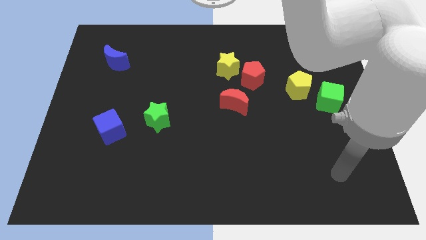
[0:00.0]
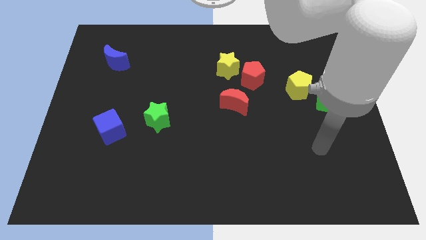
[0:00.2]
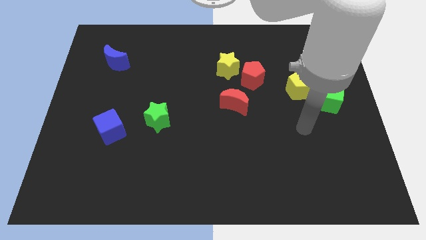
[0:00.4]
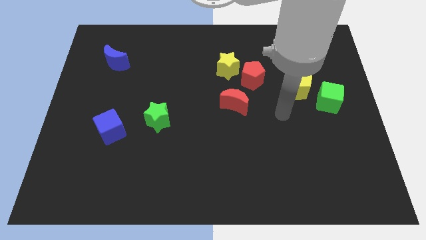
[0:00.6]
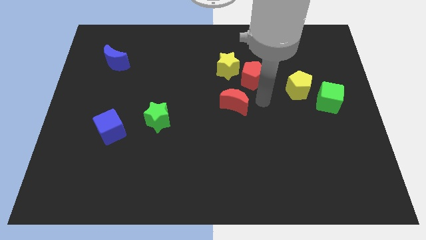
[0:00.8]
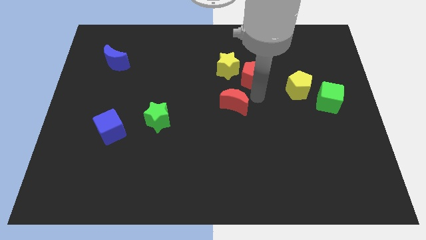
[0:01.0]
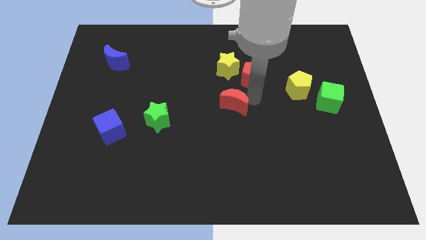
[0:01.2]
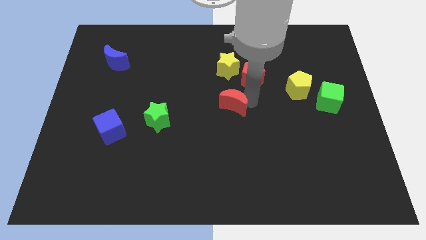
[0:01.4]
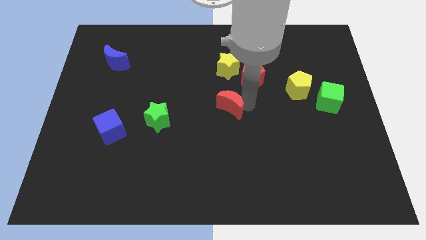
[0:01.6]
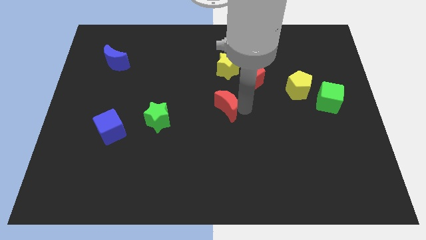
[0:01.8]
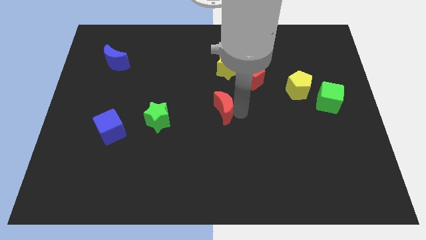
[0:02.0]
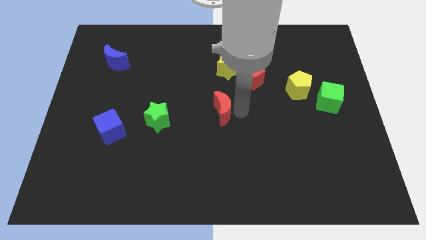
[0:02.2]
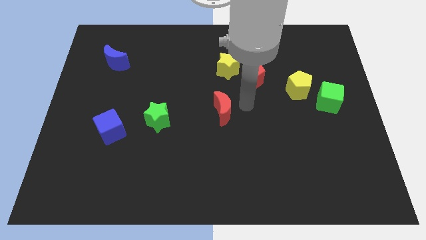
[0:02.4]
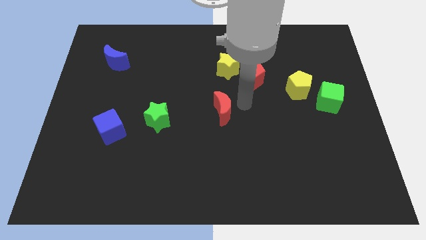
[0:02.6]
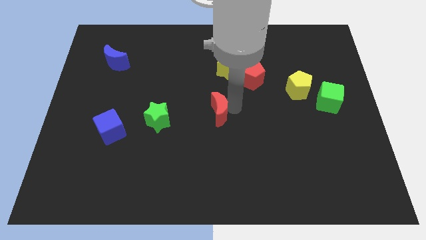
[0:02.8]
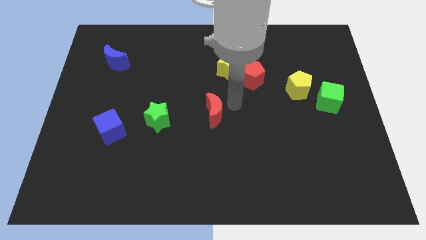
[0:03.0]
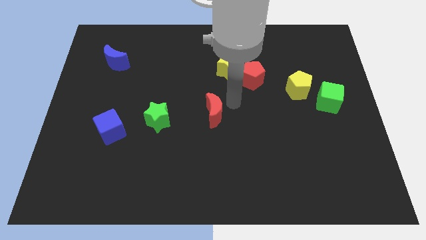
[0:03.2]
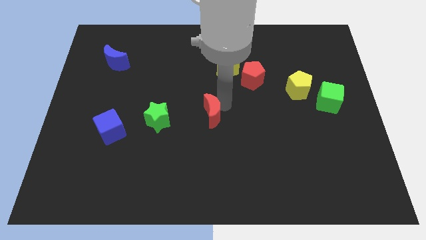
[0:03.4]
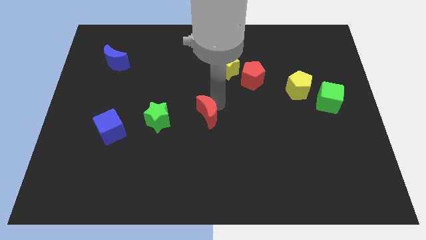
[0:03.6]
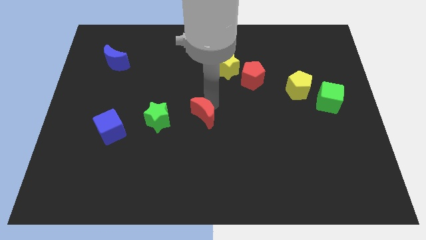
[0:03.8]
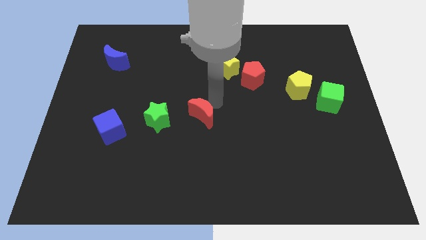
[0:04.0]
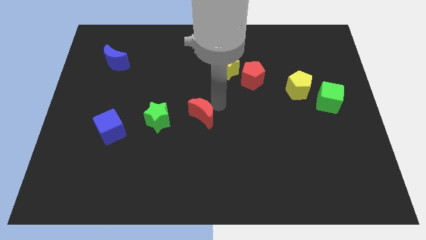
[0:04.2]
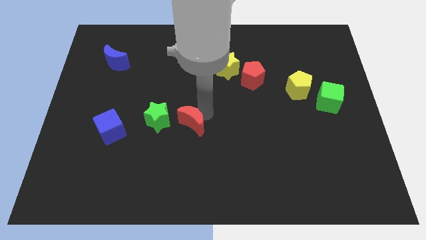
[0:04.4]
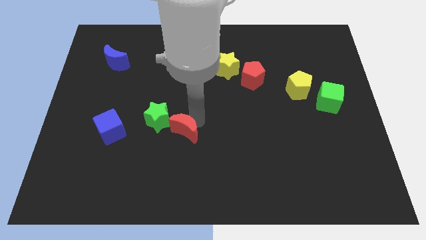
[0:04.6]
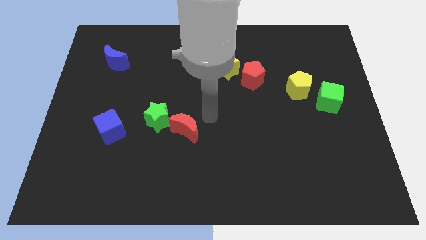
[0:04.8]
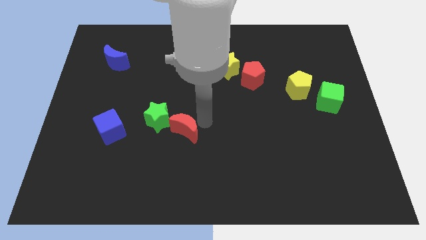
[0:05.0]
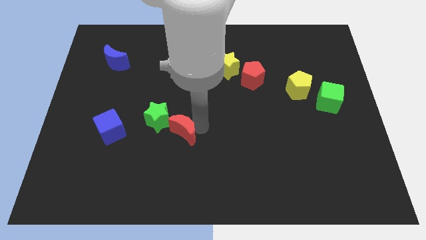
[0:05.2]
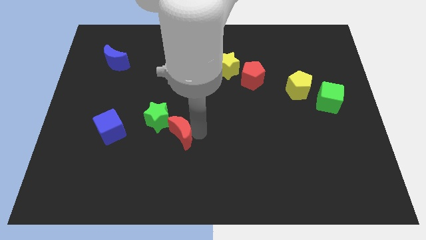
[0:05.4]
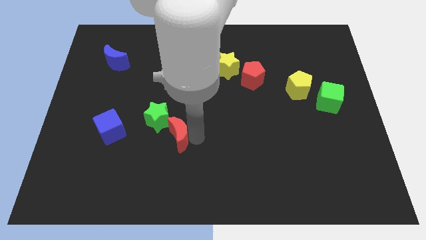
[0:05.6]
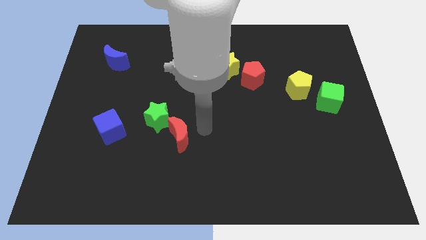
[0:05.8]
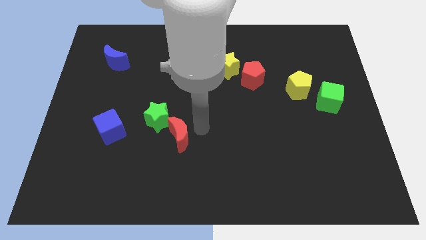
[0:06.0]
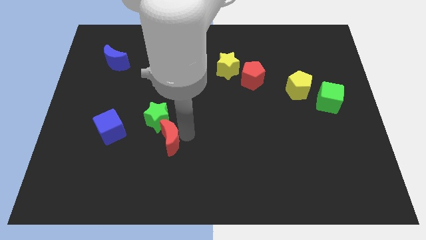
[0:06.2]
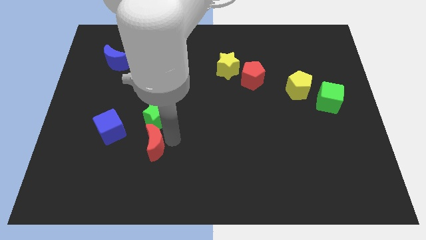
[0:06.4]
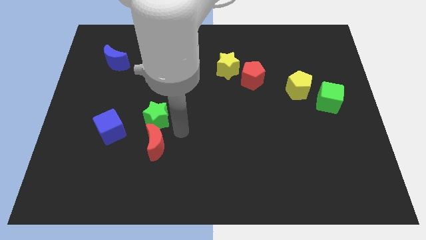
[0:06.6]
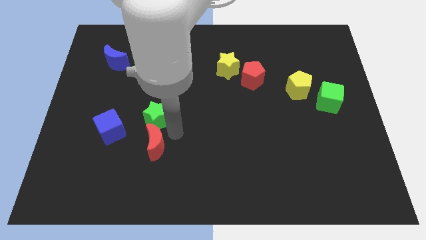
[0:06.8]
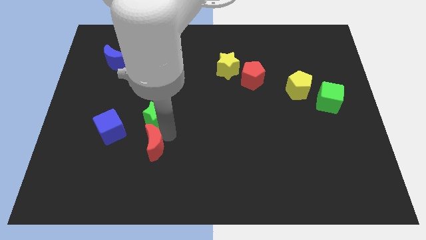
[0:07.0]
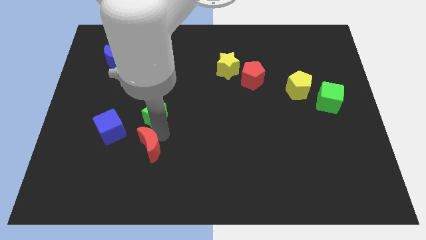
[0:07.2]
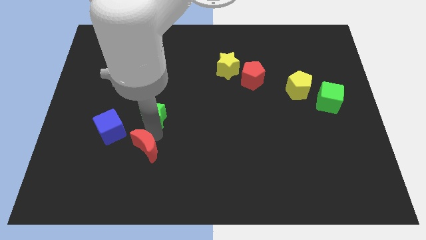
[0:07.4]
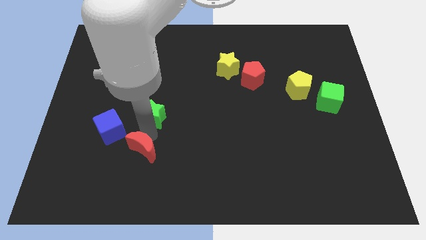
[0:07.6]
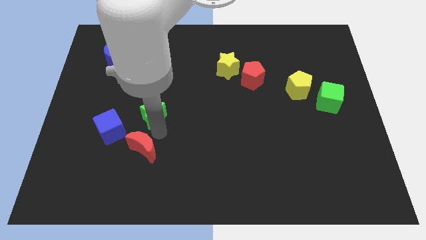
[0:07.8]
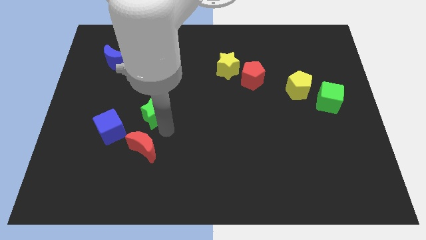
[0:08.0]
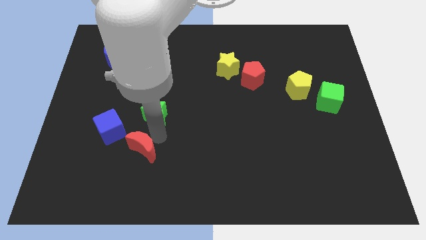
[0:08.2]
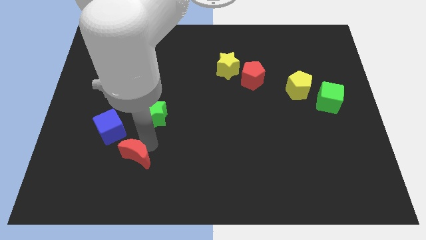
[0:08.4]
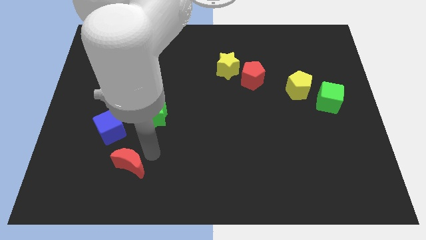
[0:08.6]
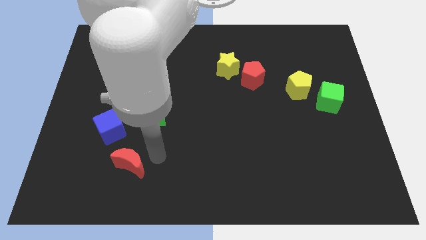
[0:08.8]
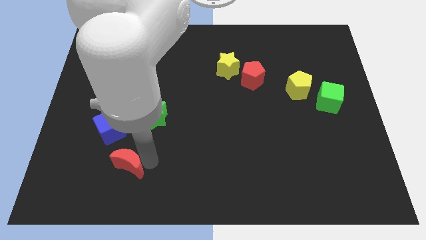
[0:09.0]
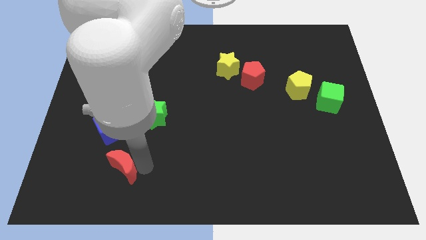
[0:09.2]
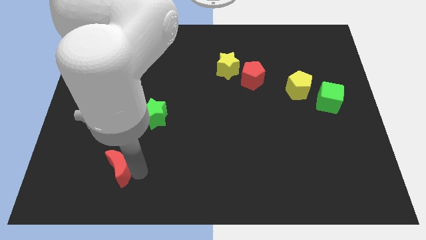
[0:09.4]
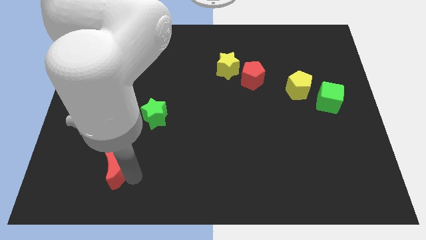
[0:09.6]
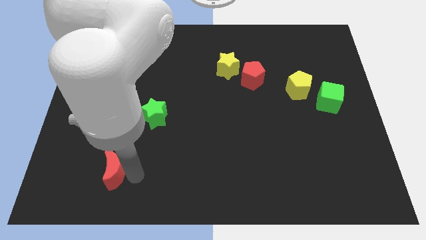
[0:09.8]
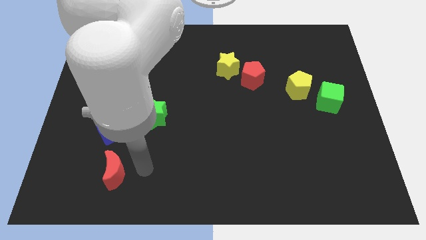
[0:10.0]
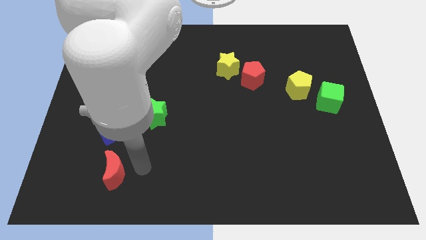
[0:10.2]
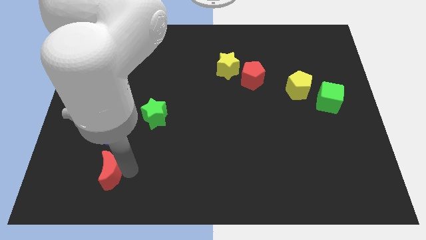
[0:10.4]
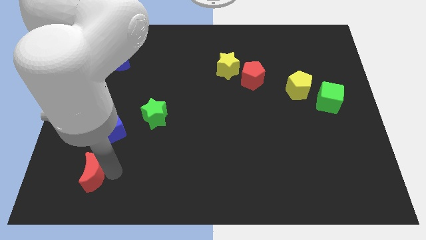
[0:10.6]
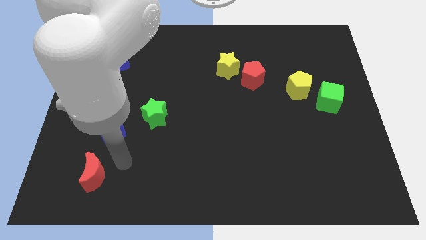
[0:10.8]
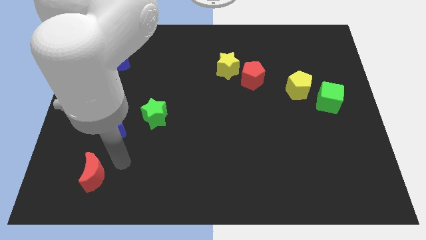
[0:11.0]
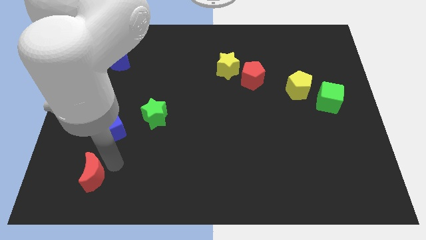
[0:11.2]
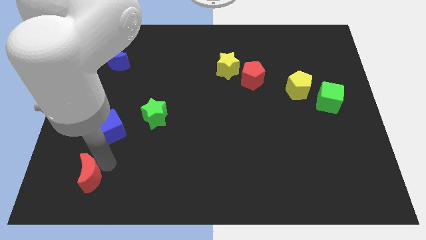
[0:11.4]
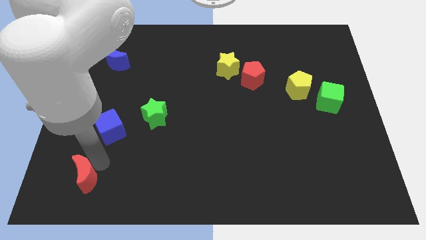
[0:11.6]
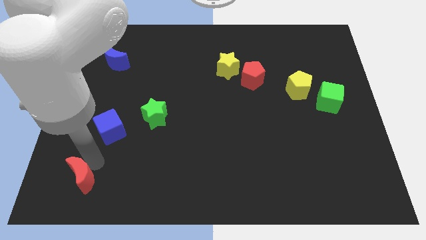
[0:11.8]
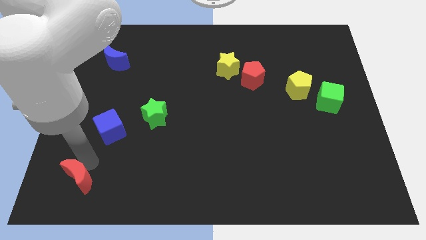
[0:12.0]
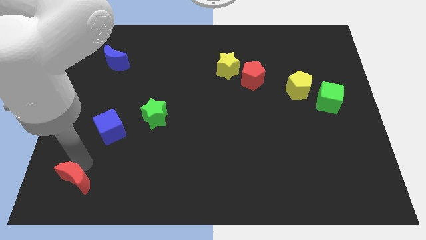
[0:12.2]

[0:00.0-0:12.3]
slide the red moon to the bottom left of the board
